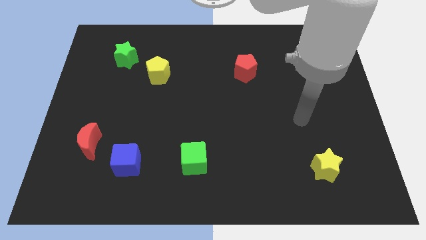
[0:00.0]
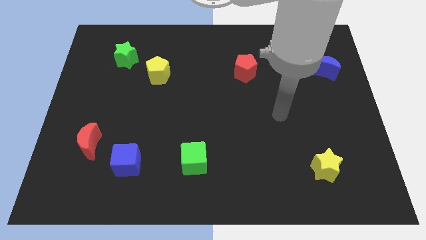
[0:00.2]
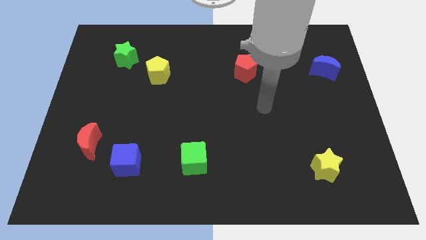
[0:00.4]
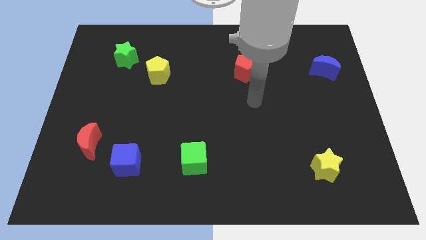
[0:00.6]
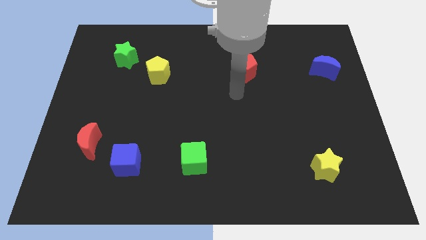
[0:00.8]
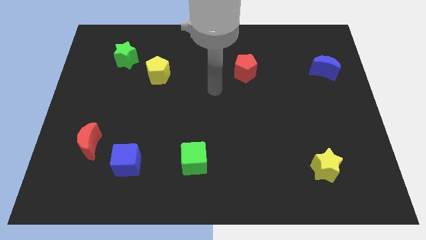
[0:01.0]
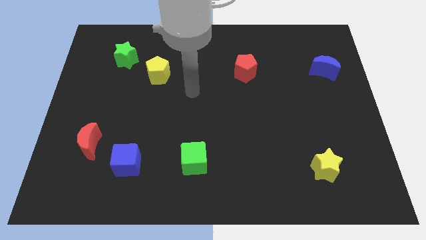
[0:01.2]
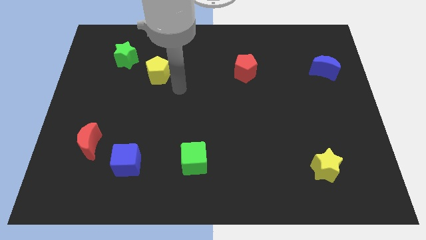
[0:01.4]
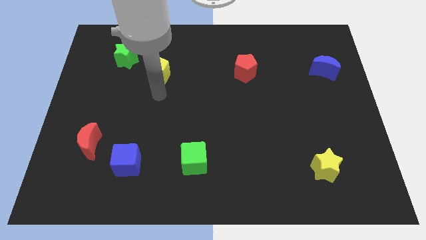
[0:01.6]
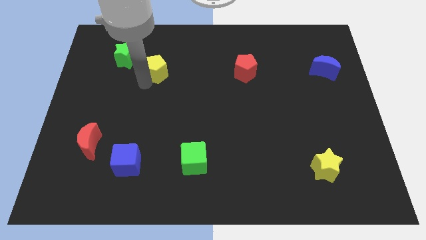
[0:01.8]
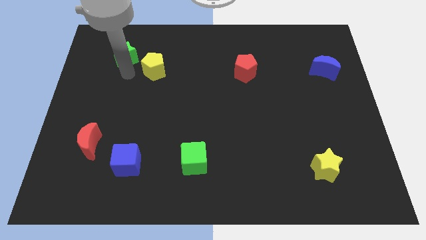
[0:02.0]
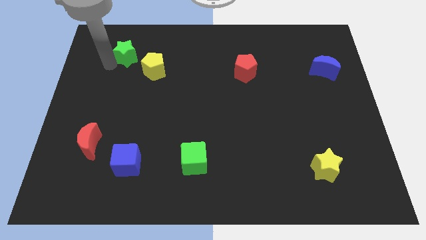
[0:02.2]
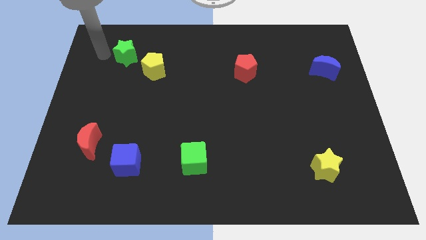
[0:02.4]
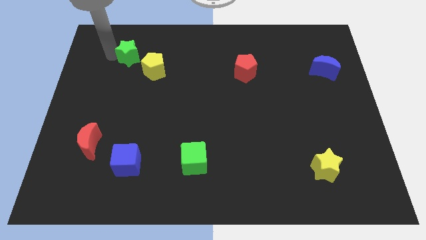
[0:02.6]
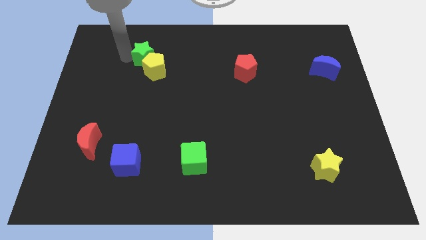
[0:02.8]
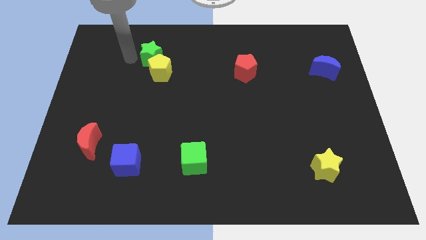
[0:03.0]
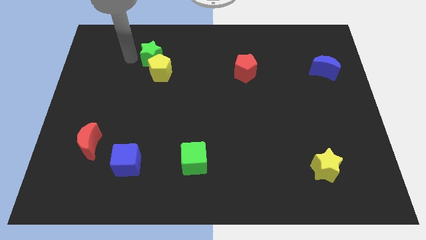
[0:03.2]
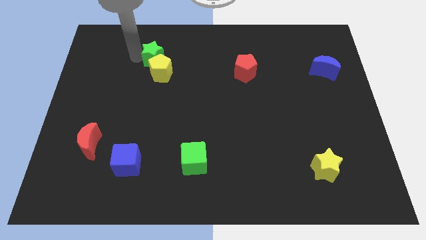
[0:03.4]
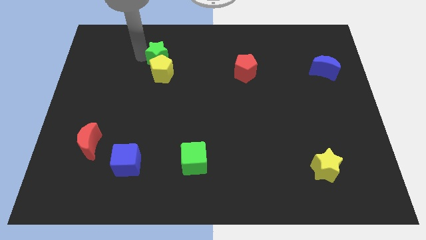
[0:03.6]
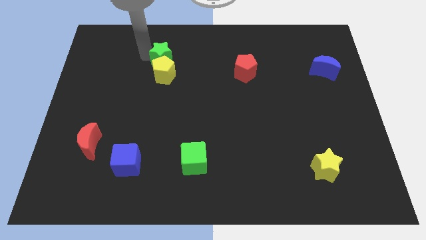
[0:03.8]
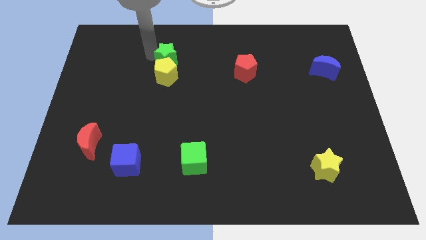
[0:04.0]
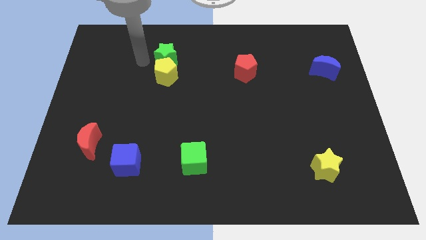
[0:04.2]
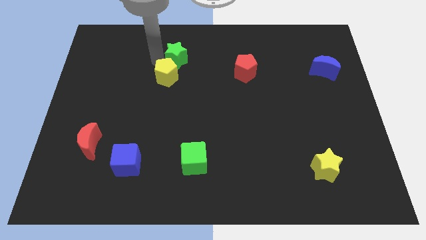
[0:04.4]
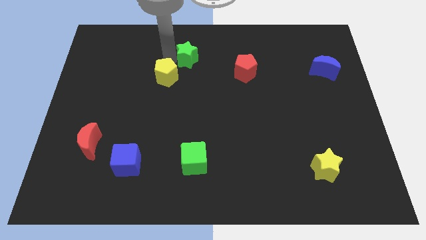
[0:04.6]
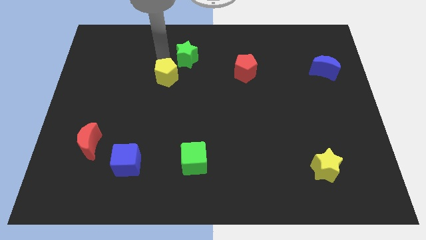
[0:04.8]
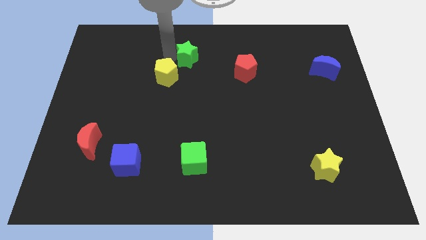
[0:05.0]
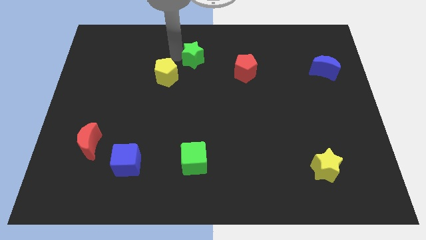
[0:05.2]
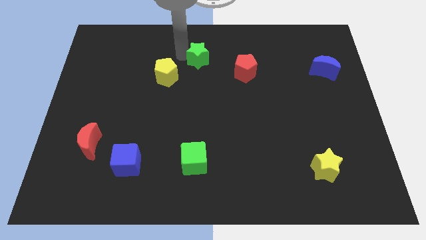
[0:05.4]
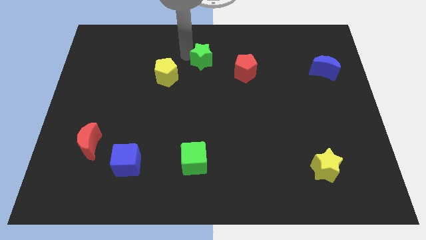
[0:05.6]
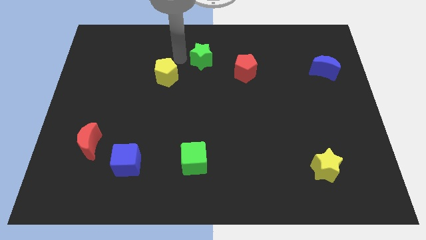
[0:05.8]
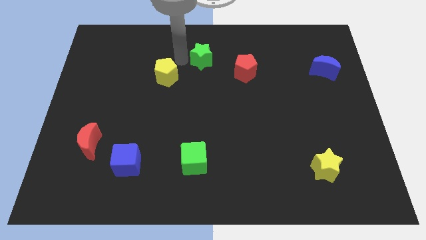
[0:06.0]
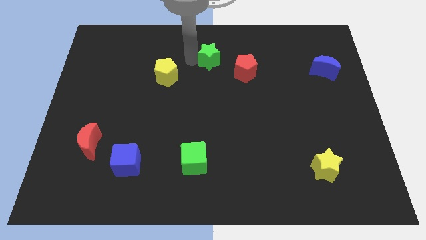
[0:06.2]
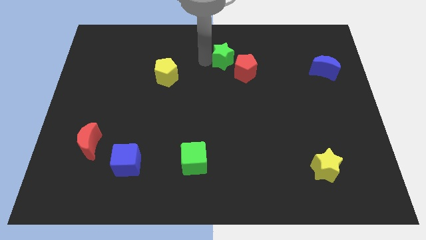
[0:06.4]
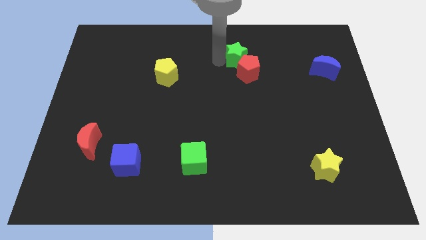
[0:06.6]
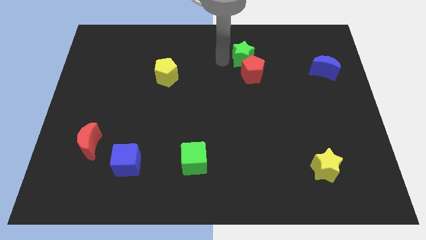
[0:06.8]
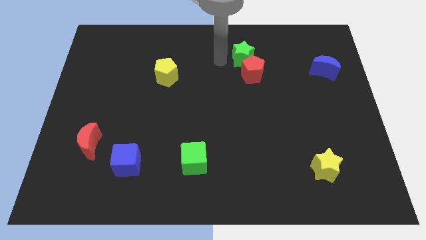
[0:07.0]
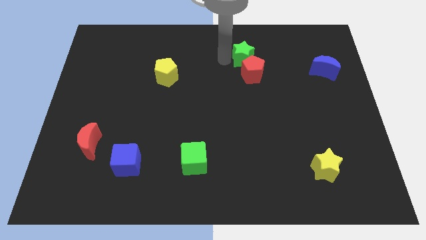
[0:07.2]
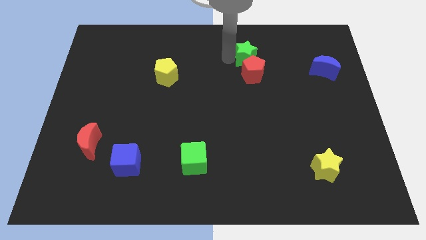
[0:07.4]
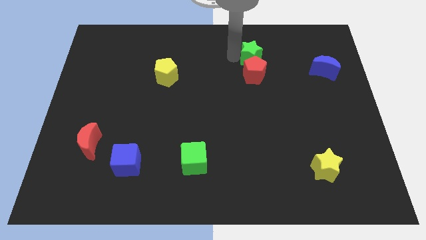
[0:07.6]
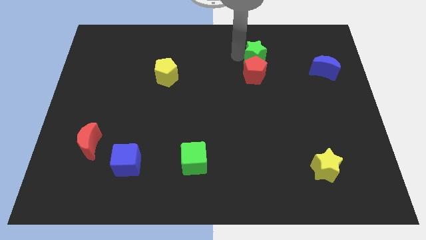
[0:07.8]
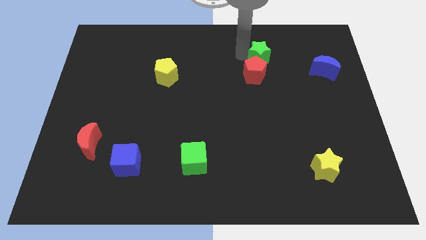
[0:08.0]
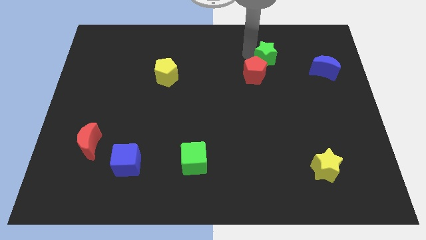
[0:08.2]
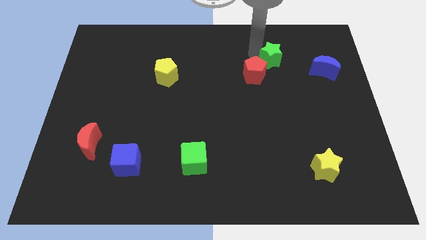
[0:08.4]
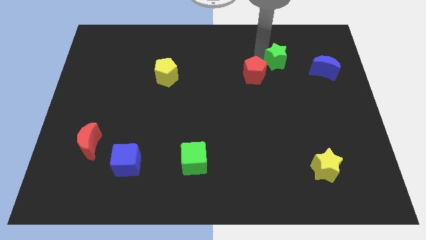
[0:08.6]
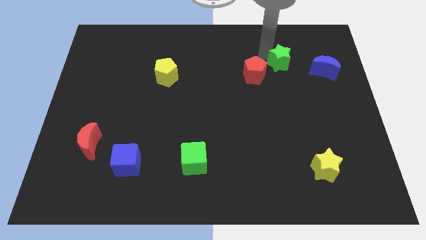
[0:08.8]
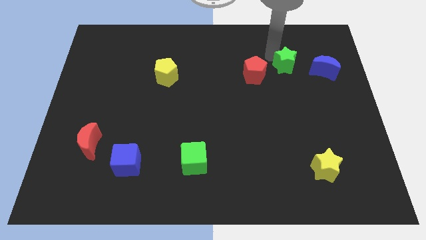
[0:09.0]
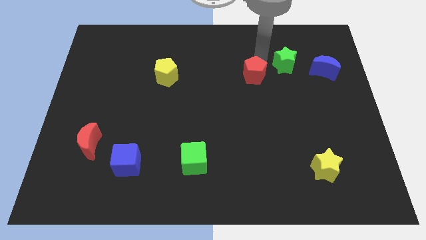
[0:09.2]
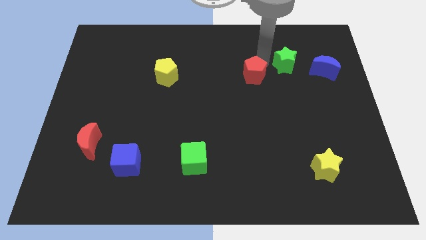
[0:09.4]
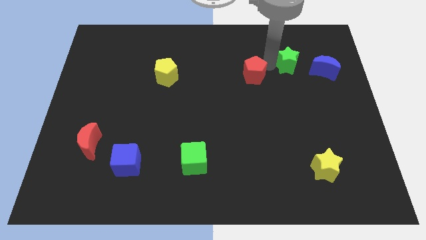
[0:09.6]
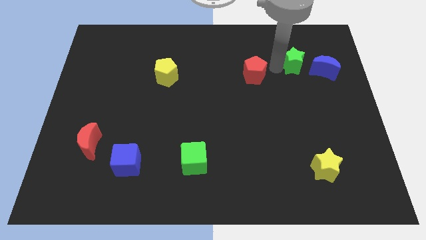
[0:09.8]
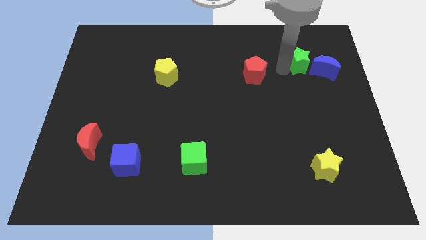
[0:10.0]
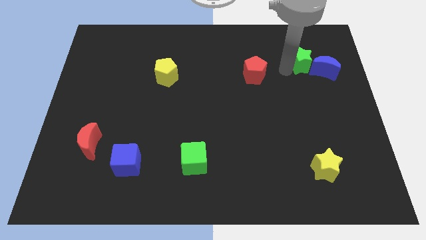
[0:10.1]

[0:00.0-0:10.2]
slide the green star towards the blue moon
